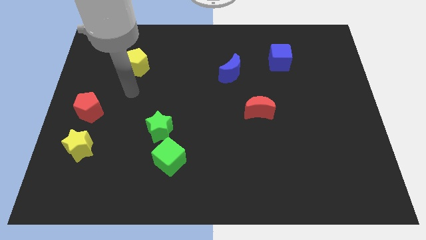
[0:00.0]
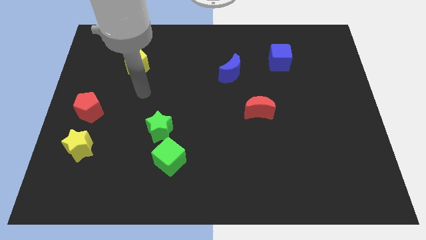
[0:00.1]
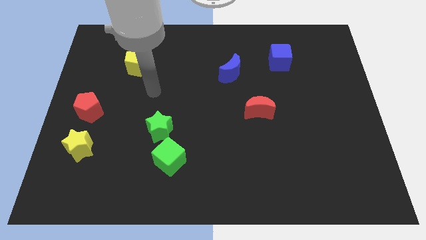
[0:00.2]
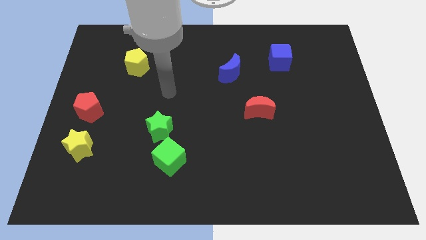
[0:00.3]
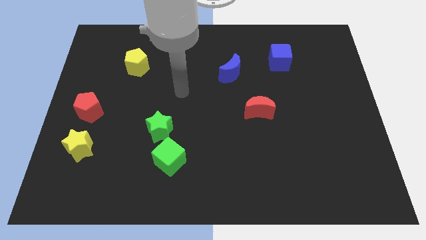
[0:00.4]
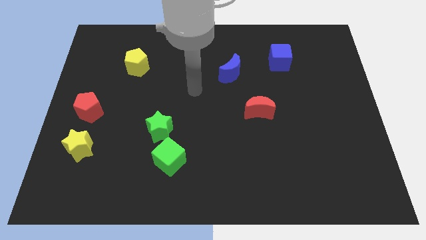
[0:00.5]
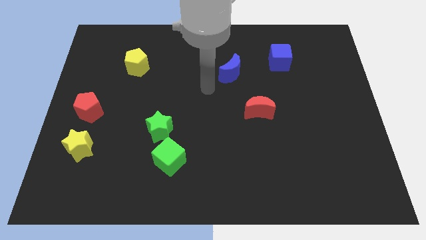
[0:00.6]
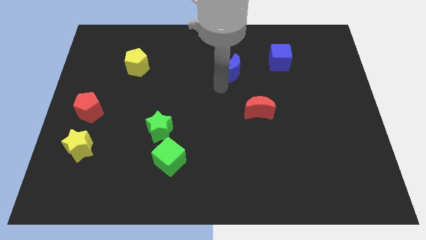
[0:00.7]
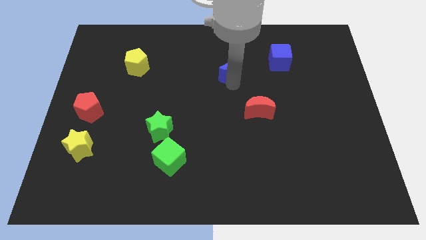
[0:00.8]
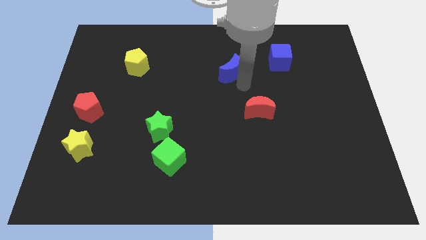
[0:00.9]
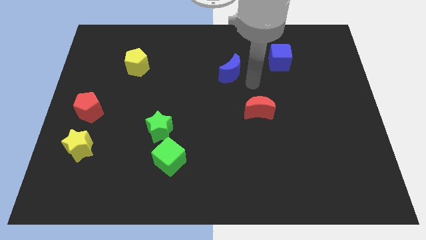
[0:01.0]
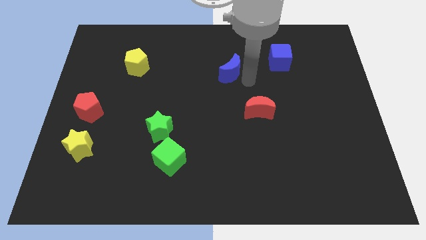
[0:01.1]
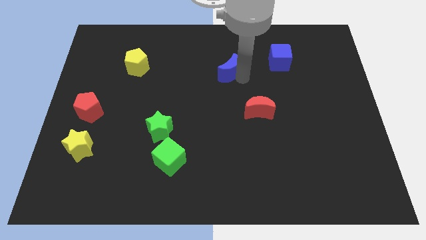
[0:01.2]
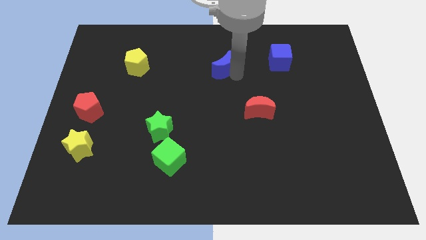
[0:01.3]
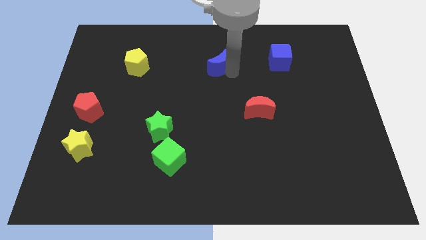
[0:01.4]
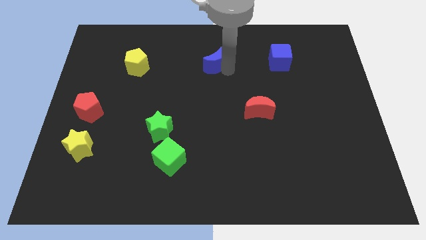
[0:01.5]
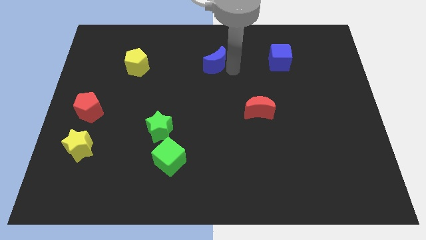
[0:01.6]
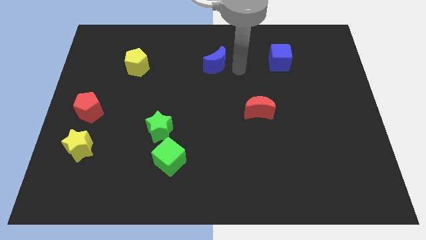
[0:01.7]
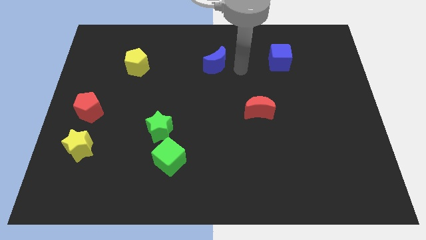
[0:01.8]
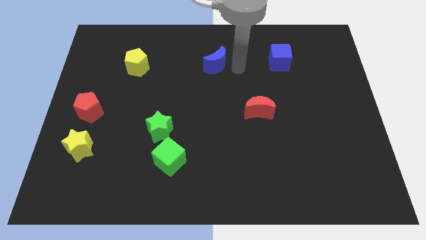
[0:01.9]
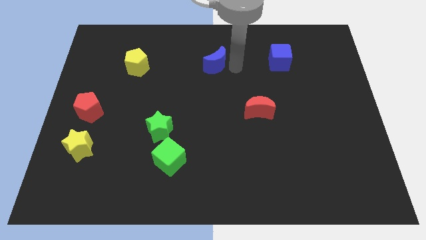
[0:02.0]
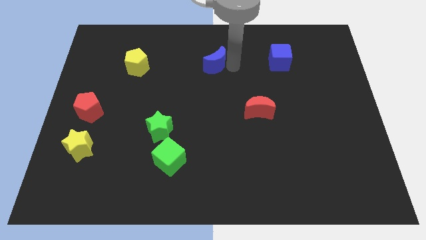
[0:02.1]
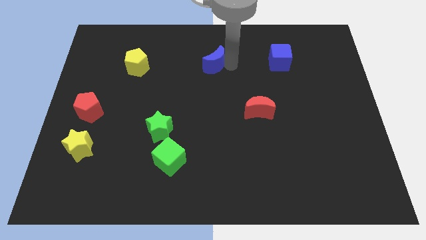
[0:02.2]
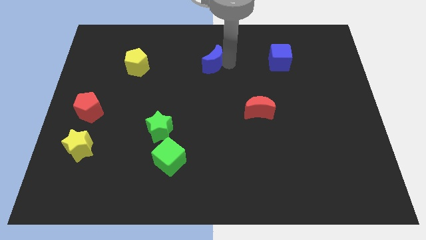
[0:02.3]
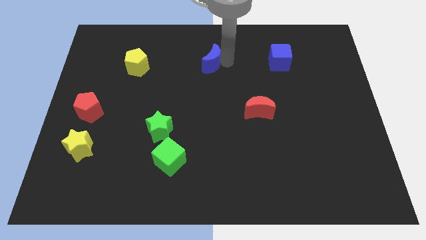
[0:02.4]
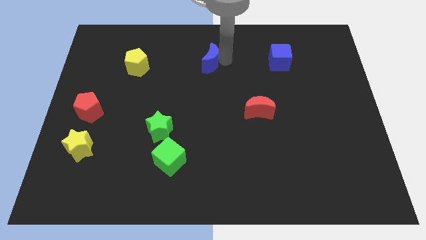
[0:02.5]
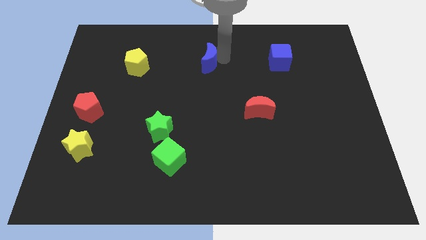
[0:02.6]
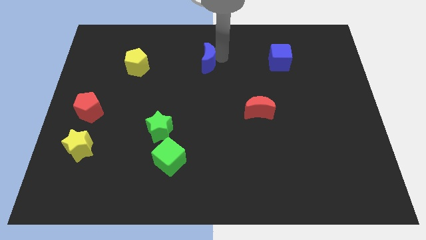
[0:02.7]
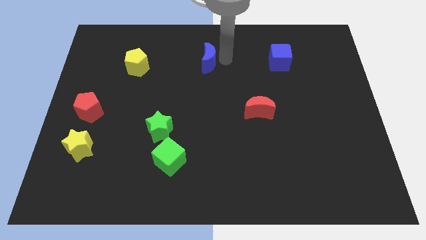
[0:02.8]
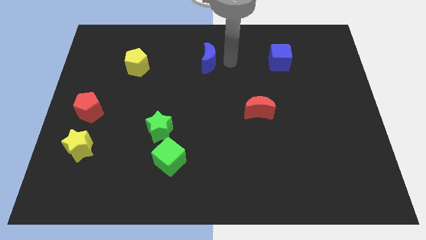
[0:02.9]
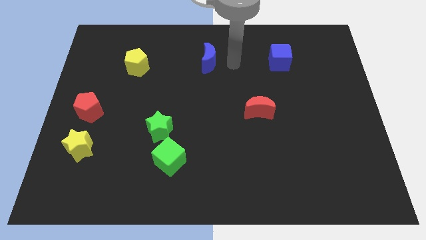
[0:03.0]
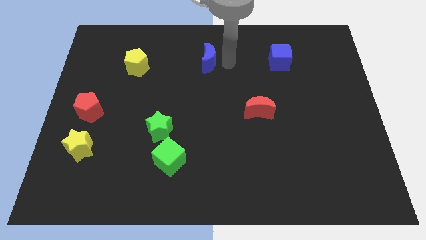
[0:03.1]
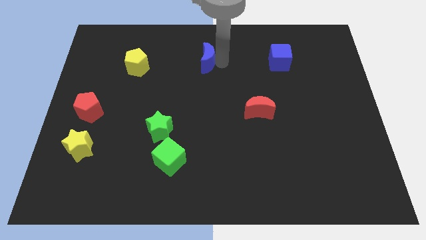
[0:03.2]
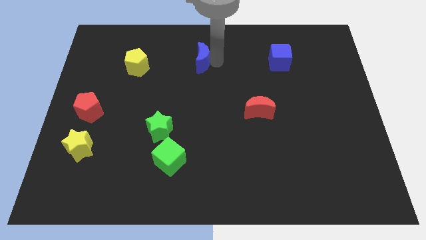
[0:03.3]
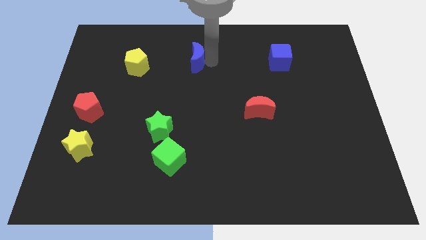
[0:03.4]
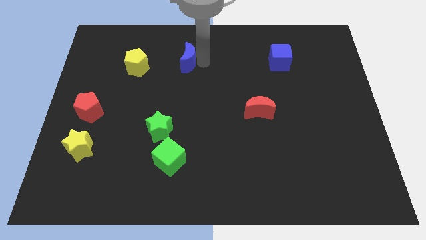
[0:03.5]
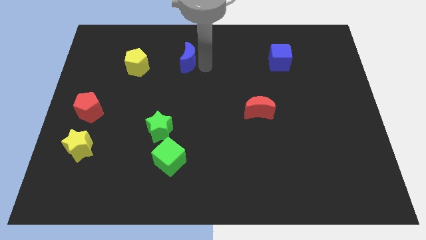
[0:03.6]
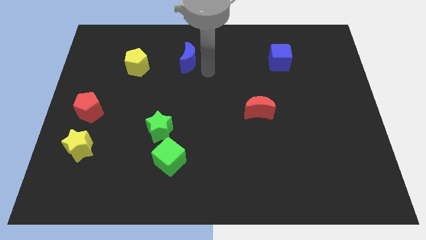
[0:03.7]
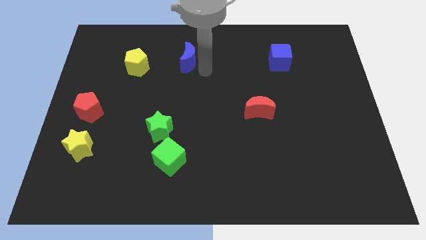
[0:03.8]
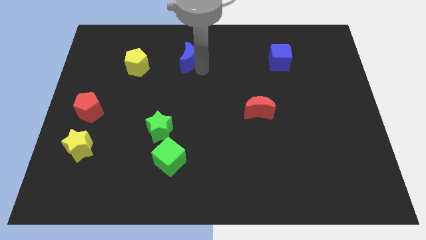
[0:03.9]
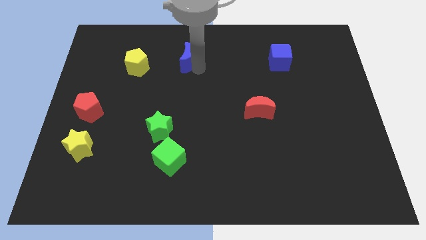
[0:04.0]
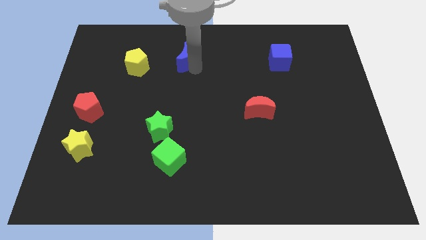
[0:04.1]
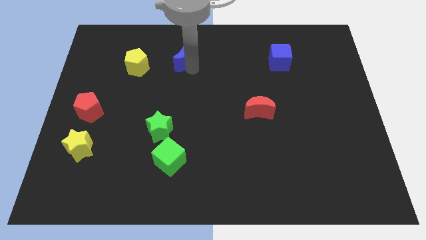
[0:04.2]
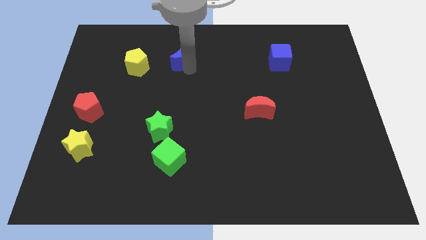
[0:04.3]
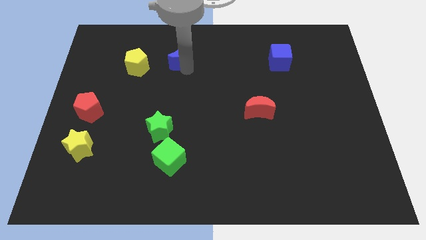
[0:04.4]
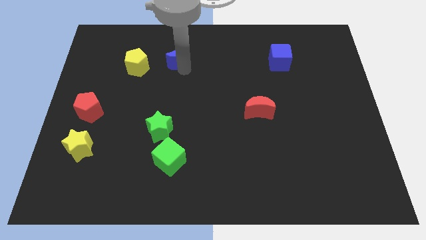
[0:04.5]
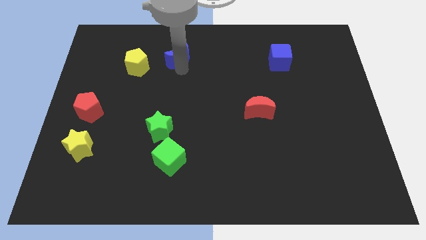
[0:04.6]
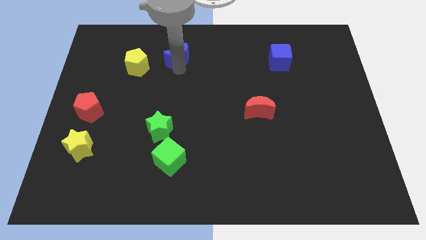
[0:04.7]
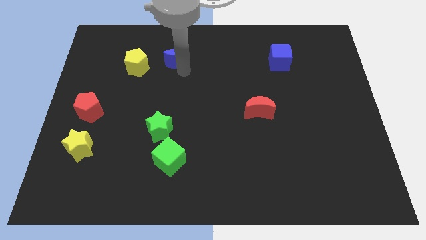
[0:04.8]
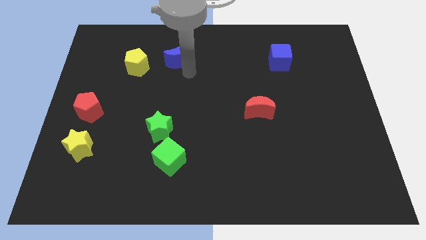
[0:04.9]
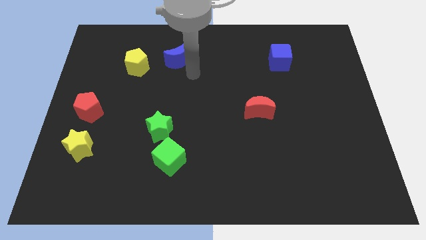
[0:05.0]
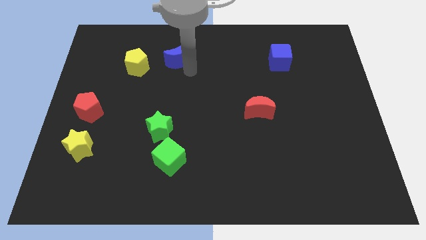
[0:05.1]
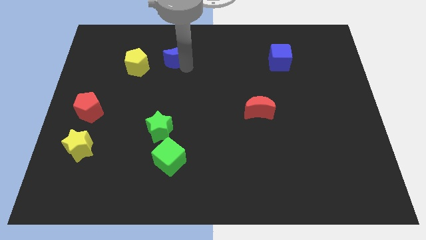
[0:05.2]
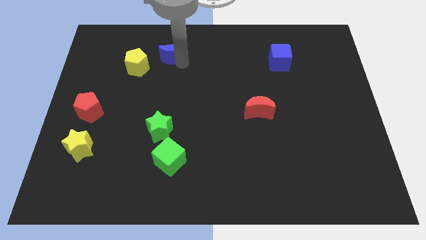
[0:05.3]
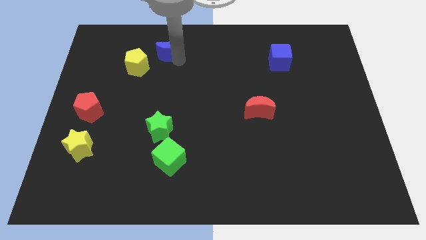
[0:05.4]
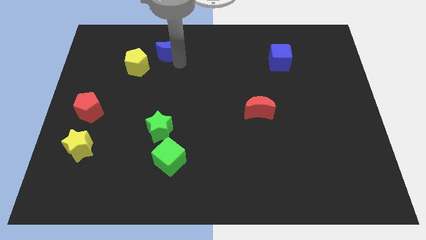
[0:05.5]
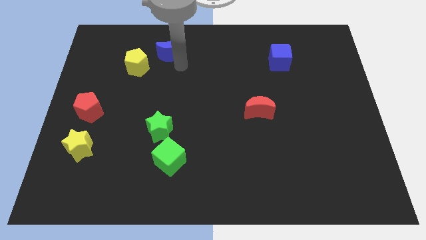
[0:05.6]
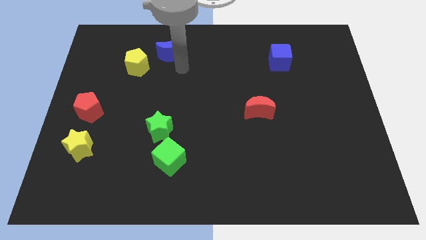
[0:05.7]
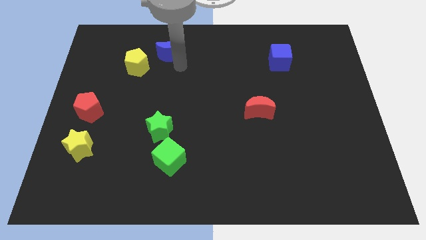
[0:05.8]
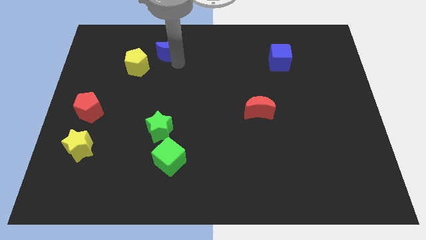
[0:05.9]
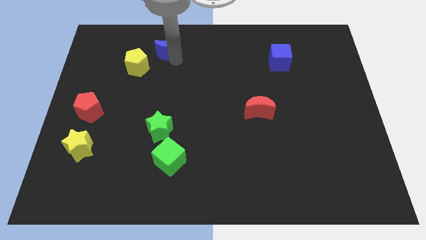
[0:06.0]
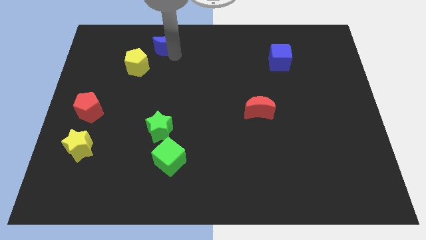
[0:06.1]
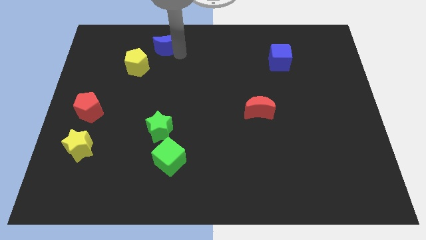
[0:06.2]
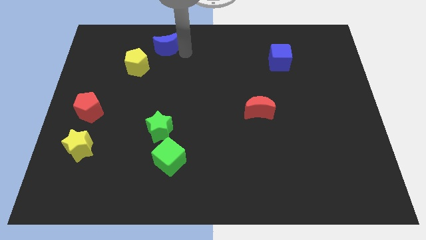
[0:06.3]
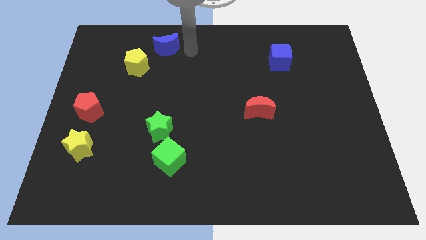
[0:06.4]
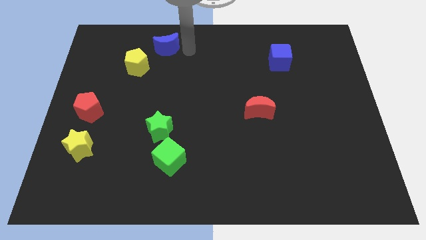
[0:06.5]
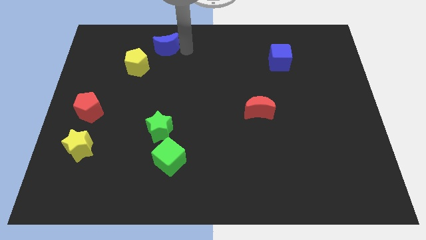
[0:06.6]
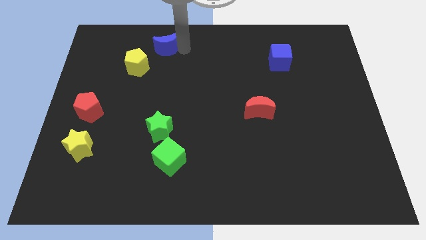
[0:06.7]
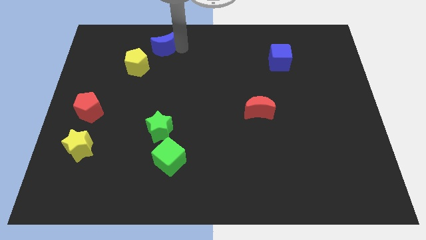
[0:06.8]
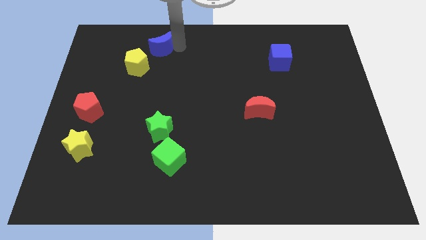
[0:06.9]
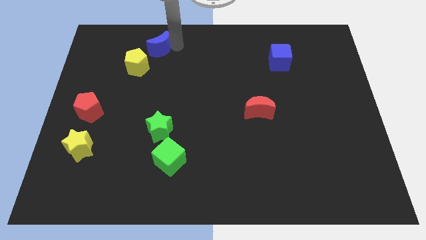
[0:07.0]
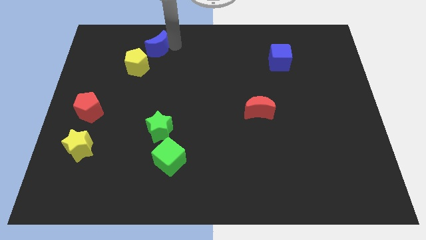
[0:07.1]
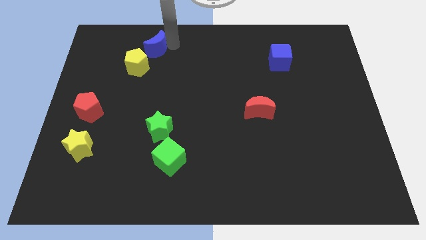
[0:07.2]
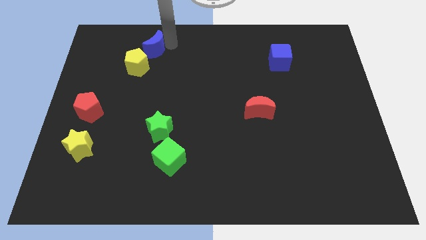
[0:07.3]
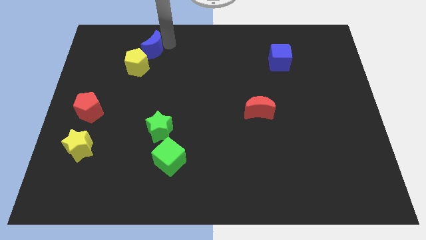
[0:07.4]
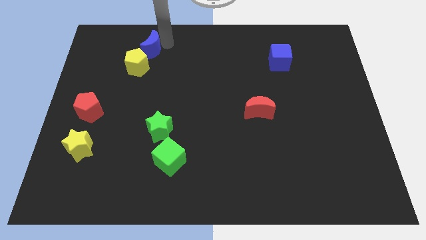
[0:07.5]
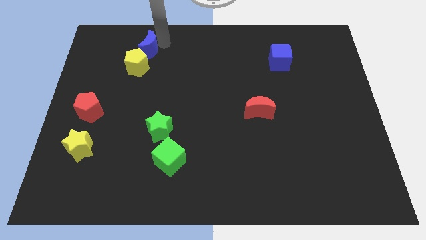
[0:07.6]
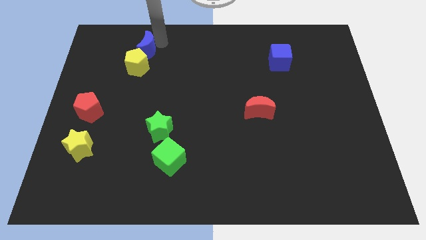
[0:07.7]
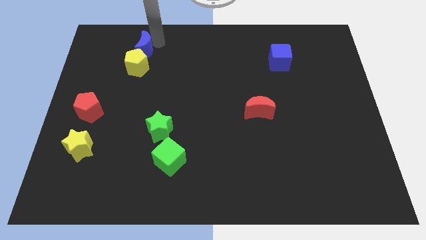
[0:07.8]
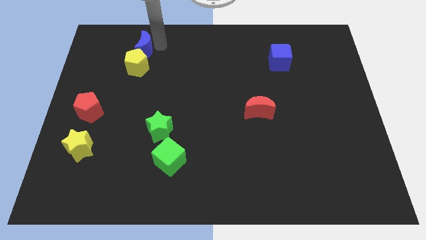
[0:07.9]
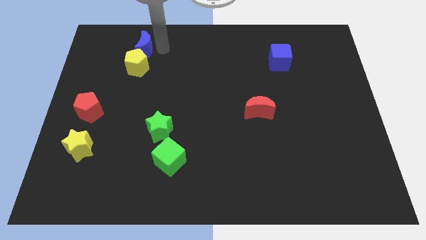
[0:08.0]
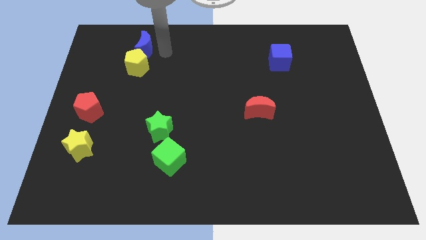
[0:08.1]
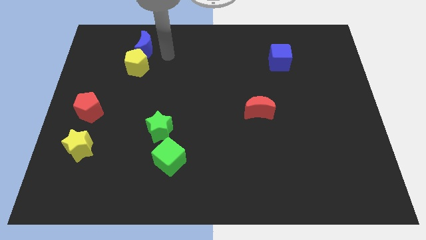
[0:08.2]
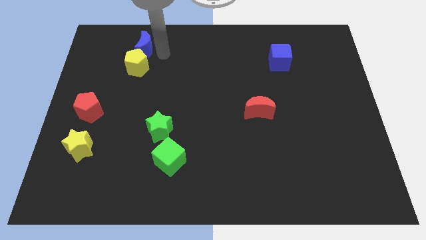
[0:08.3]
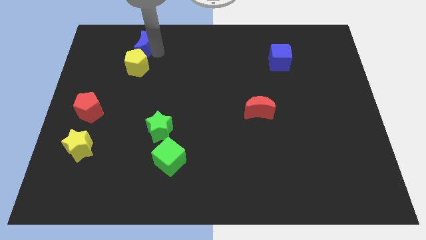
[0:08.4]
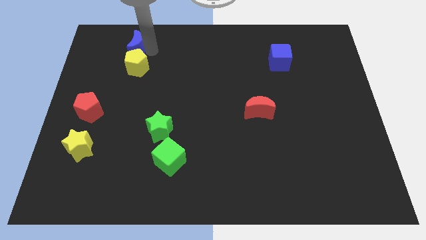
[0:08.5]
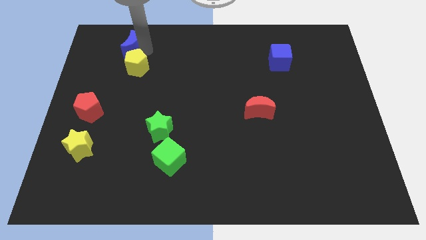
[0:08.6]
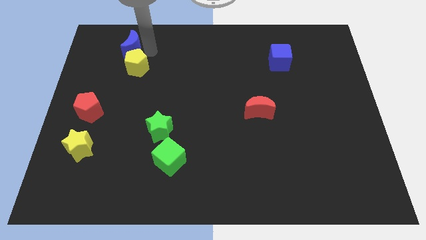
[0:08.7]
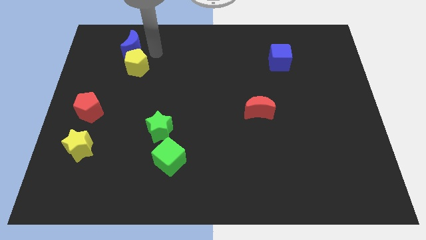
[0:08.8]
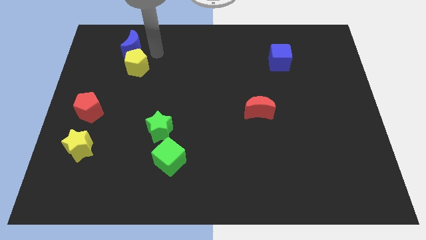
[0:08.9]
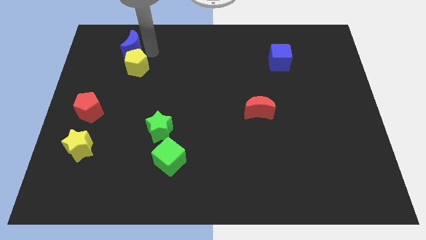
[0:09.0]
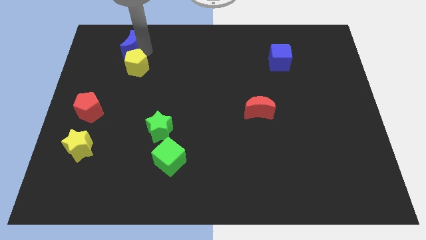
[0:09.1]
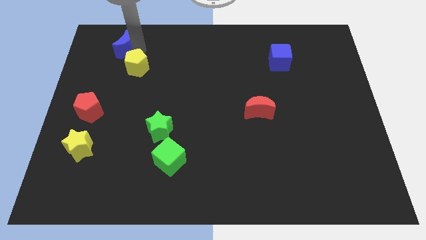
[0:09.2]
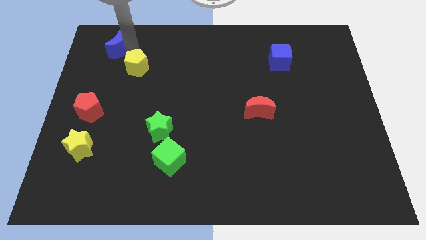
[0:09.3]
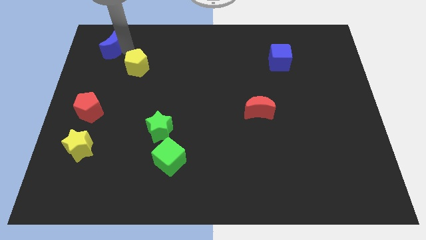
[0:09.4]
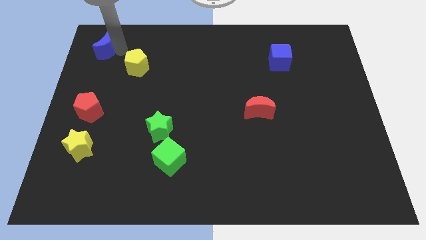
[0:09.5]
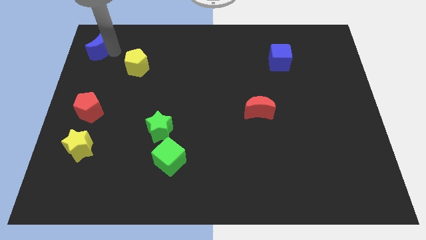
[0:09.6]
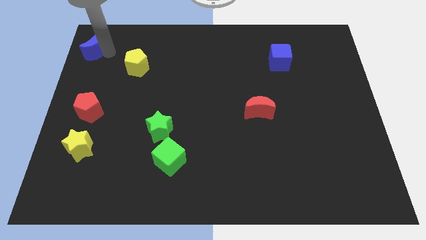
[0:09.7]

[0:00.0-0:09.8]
move the blue moon to the upper left corner
